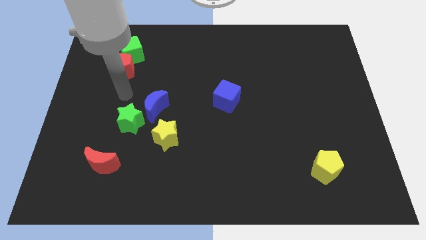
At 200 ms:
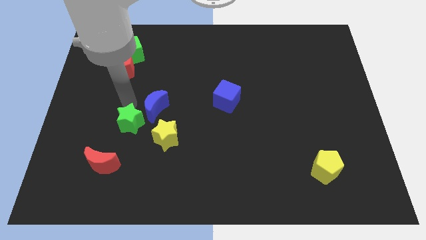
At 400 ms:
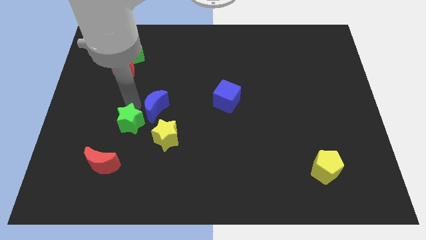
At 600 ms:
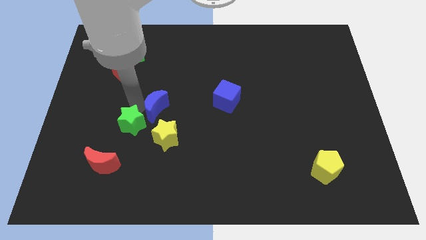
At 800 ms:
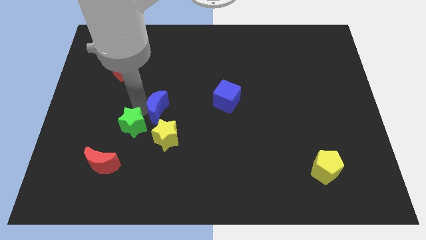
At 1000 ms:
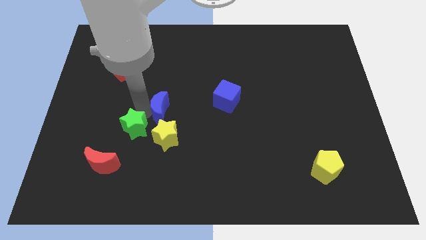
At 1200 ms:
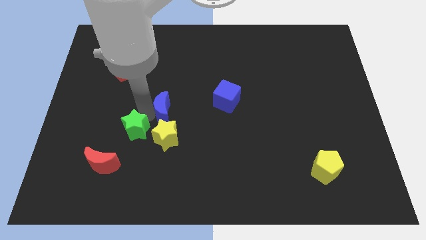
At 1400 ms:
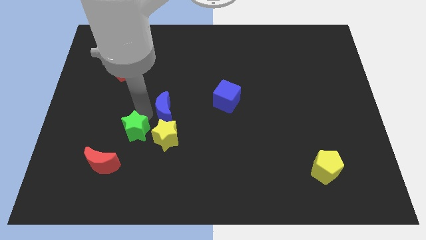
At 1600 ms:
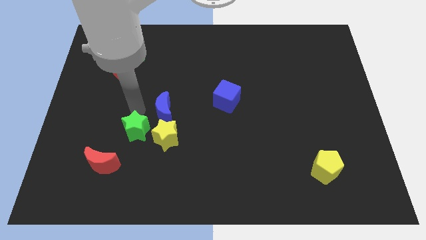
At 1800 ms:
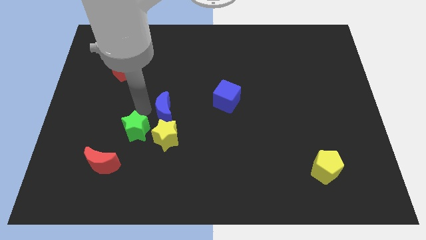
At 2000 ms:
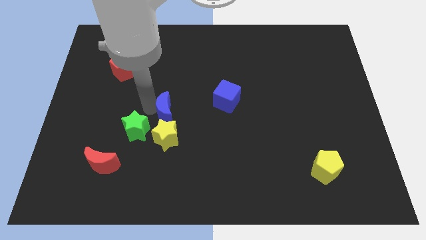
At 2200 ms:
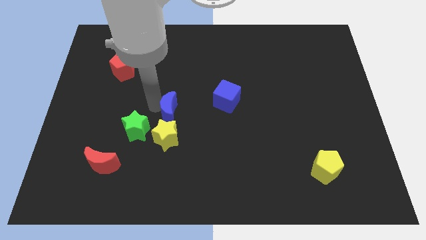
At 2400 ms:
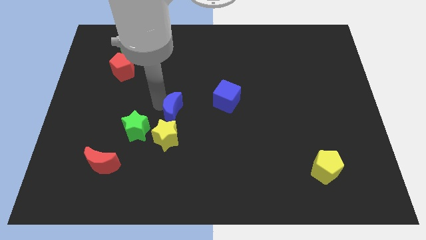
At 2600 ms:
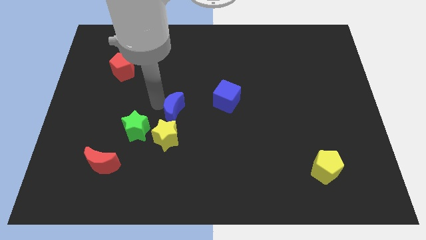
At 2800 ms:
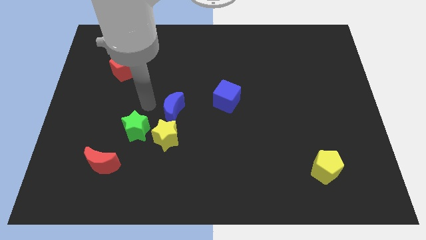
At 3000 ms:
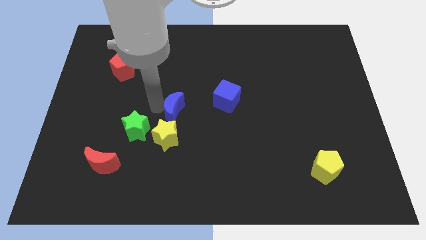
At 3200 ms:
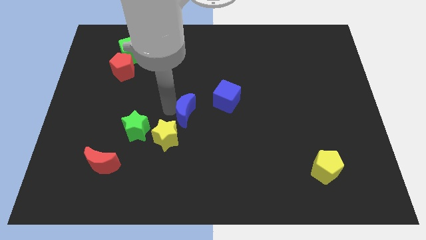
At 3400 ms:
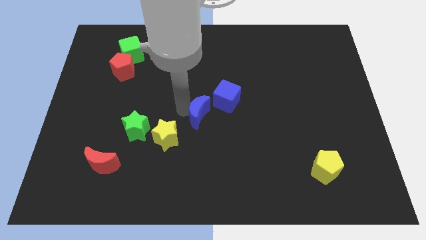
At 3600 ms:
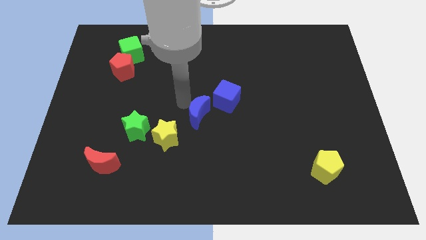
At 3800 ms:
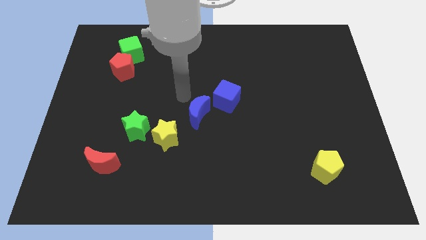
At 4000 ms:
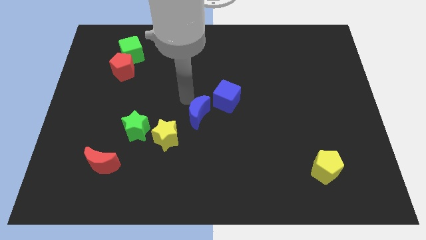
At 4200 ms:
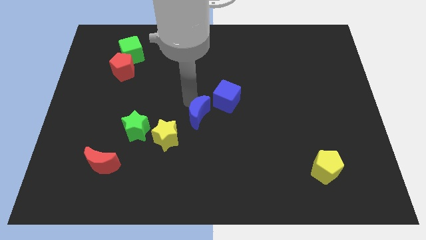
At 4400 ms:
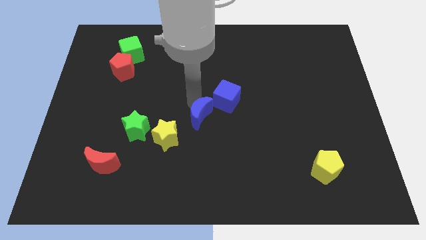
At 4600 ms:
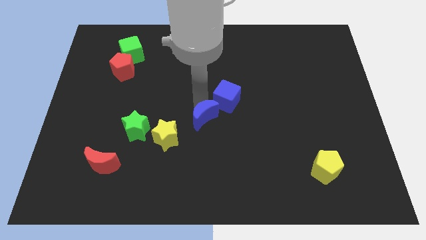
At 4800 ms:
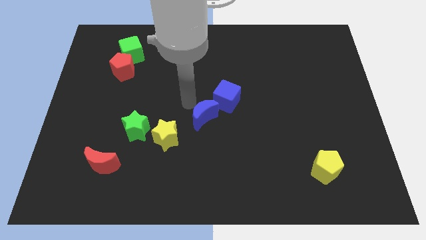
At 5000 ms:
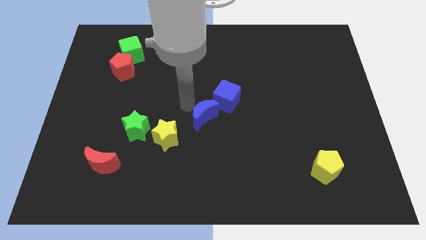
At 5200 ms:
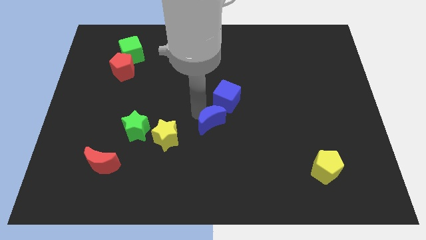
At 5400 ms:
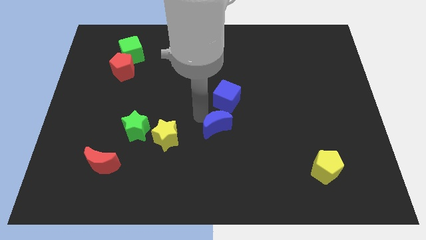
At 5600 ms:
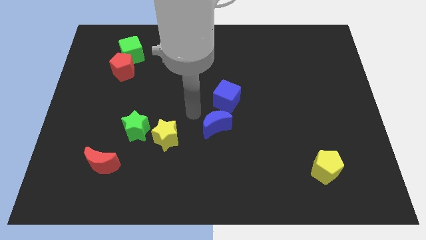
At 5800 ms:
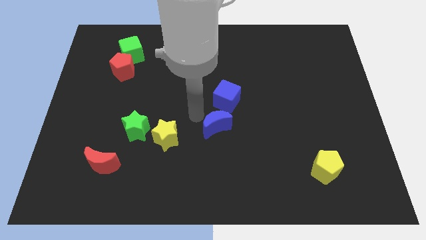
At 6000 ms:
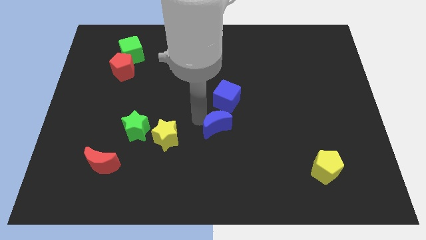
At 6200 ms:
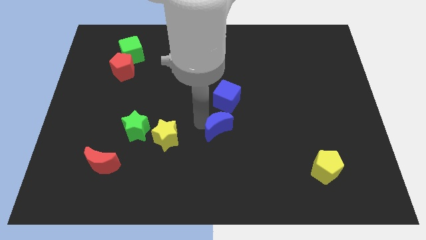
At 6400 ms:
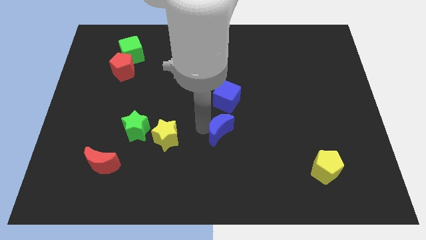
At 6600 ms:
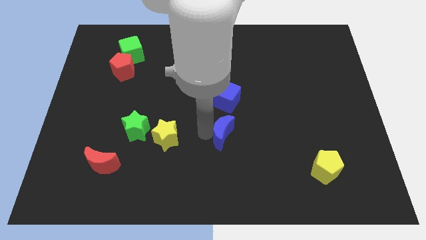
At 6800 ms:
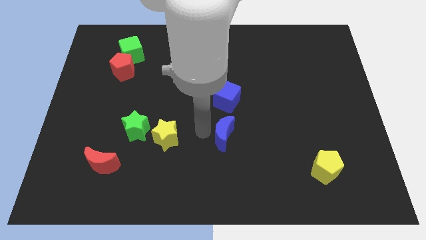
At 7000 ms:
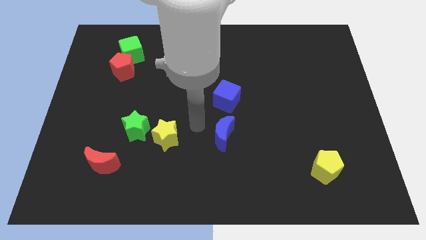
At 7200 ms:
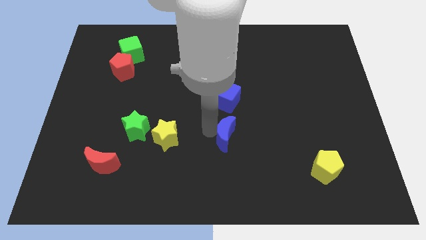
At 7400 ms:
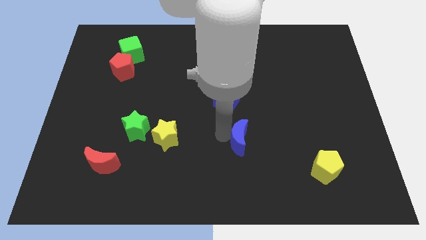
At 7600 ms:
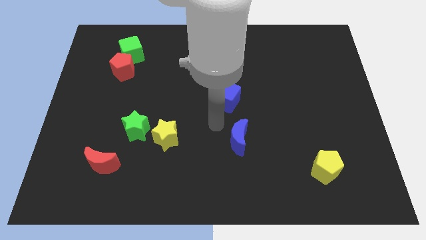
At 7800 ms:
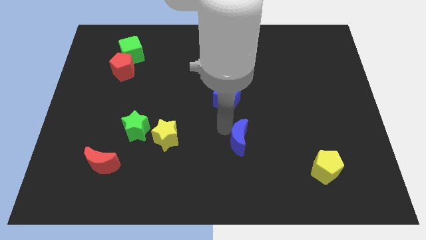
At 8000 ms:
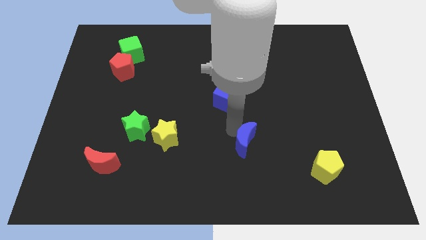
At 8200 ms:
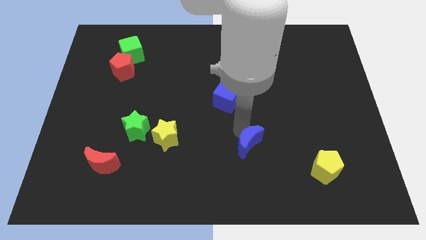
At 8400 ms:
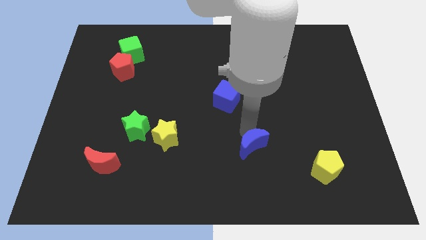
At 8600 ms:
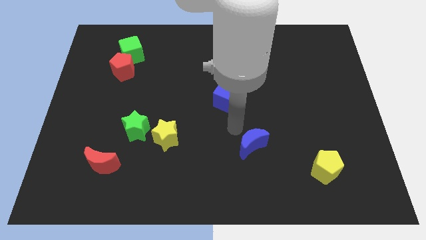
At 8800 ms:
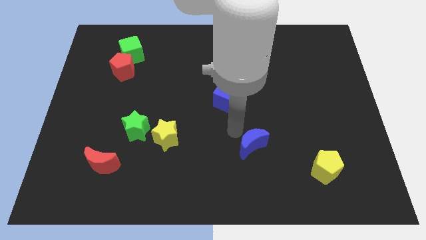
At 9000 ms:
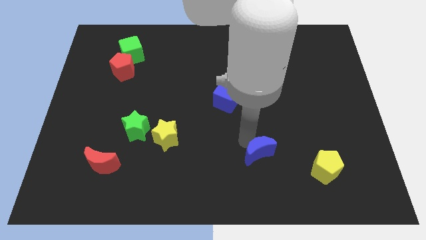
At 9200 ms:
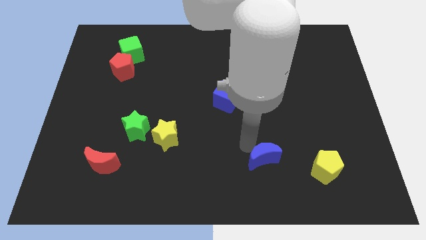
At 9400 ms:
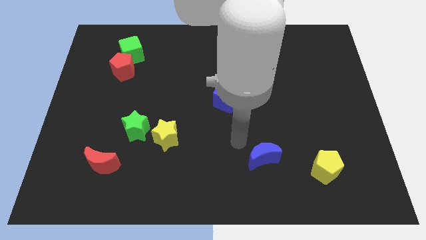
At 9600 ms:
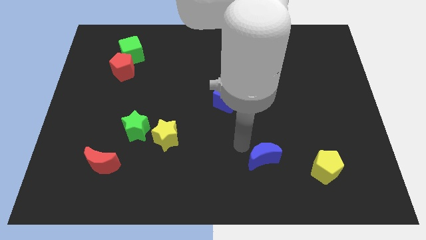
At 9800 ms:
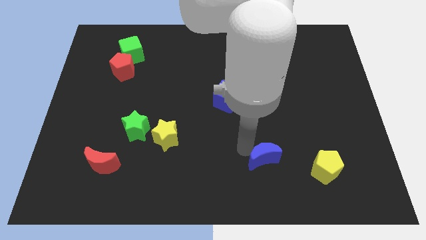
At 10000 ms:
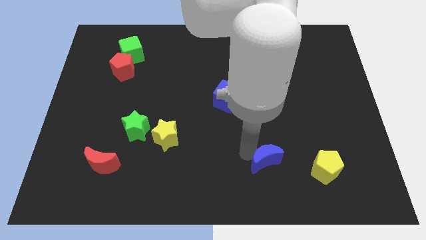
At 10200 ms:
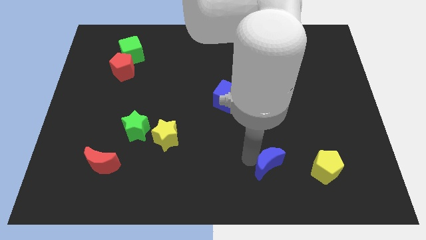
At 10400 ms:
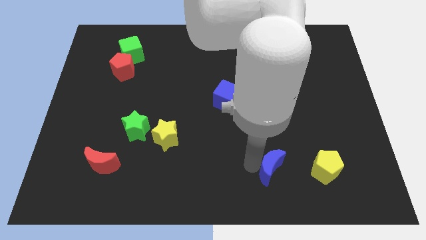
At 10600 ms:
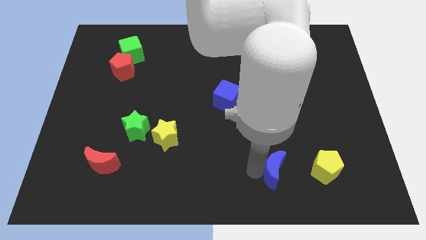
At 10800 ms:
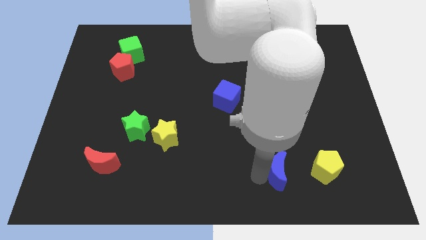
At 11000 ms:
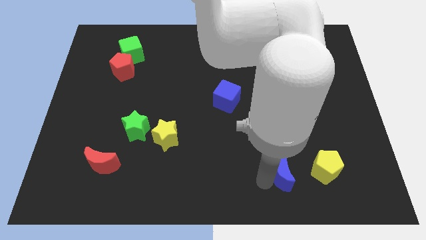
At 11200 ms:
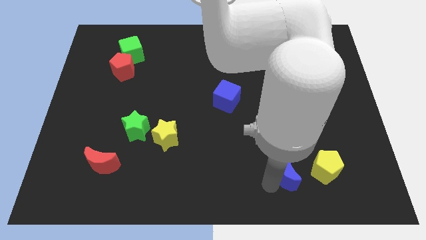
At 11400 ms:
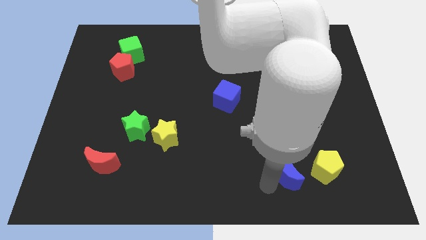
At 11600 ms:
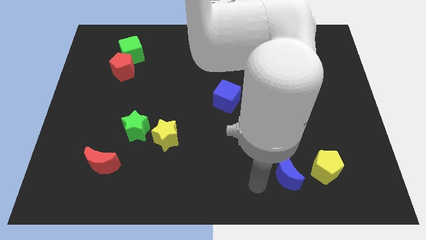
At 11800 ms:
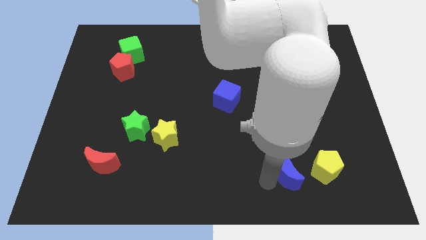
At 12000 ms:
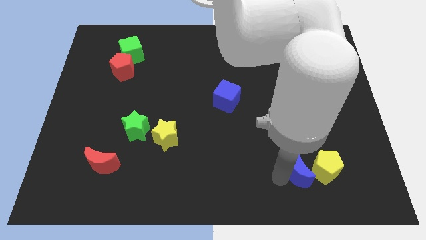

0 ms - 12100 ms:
push the blue moon close to the yellow pentagon

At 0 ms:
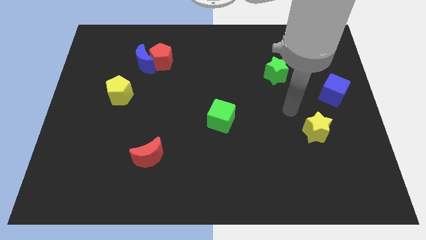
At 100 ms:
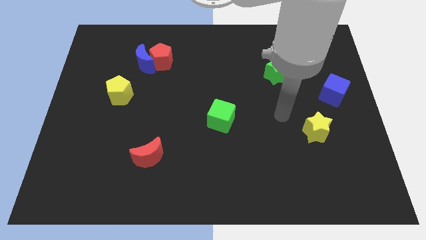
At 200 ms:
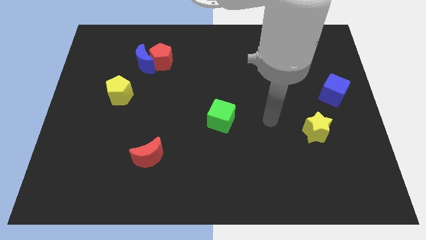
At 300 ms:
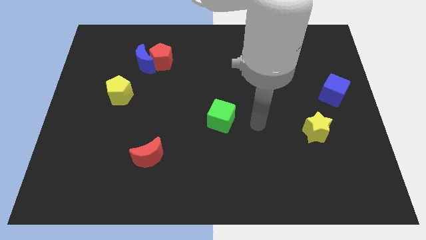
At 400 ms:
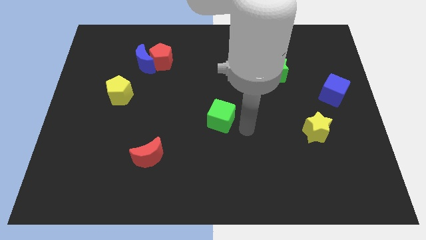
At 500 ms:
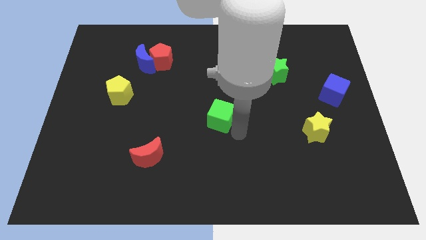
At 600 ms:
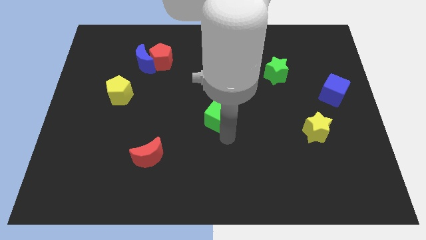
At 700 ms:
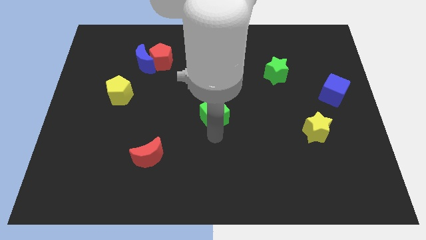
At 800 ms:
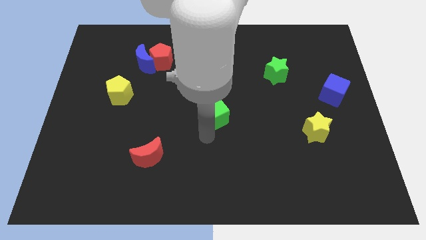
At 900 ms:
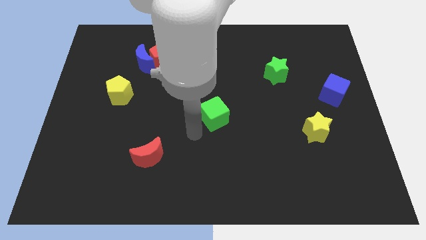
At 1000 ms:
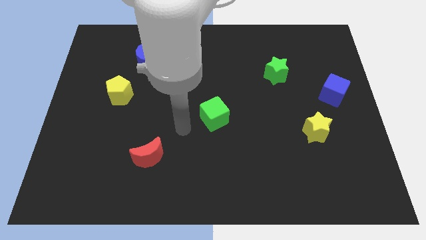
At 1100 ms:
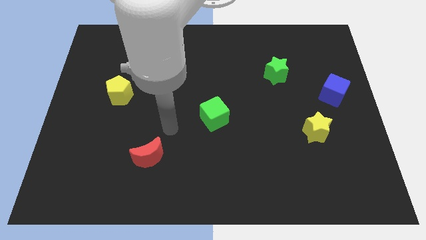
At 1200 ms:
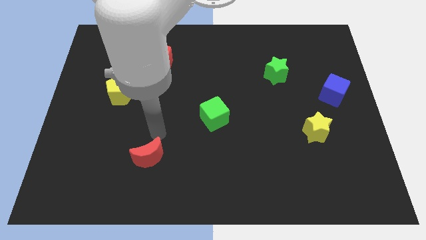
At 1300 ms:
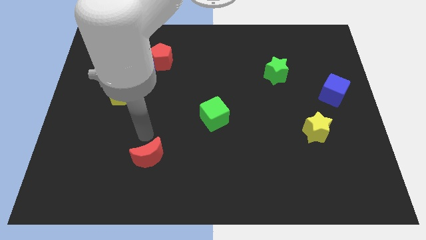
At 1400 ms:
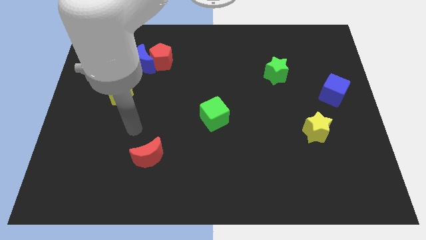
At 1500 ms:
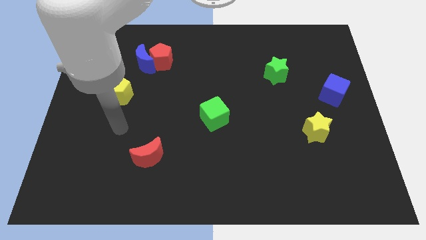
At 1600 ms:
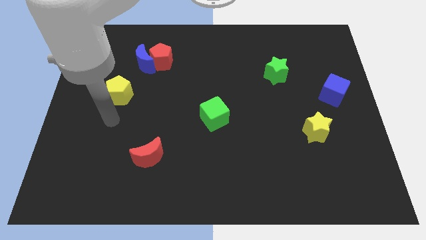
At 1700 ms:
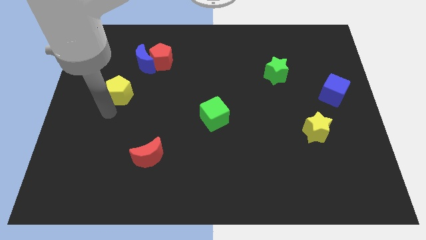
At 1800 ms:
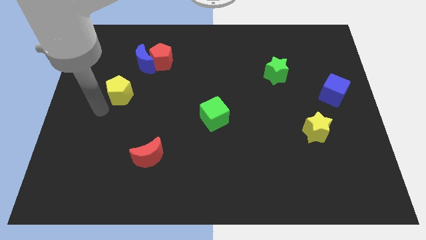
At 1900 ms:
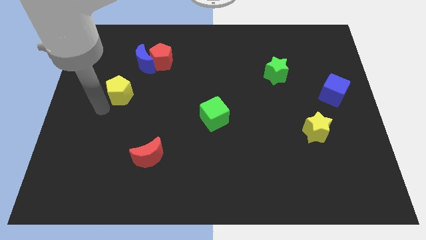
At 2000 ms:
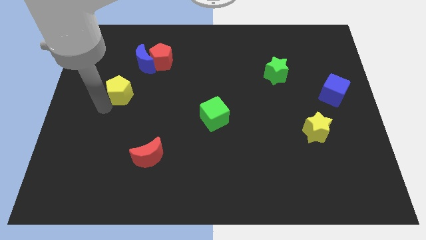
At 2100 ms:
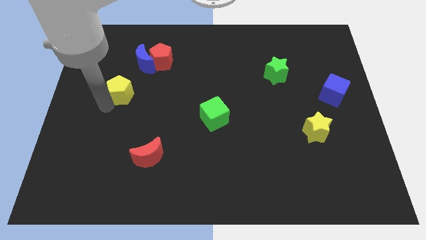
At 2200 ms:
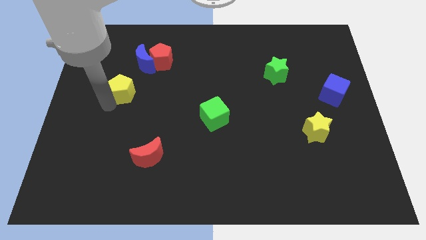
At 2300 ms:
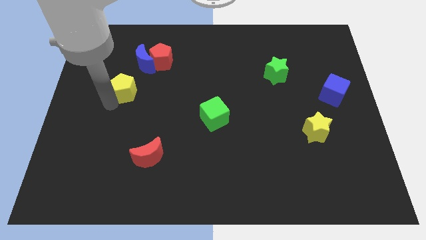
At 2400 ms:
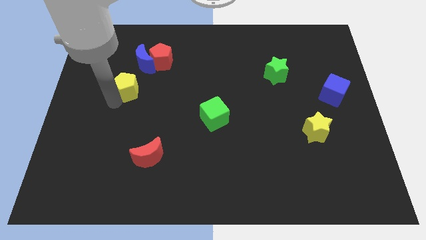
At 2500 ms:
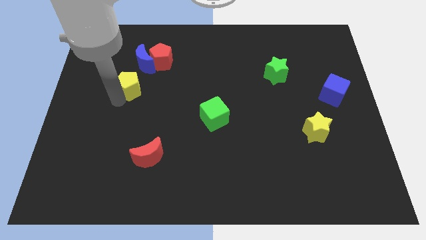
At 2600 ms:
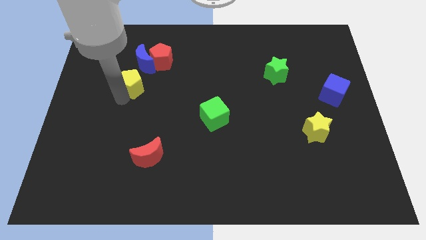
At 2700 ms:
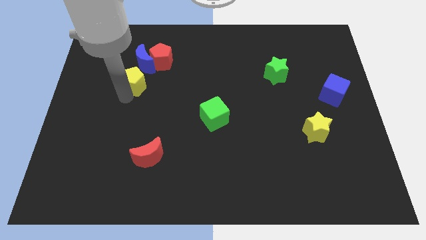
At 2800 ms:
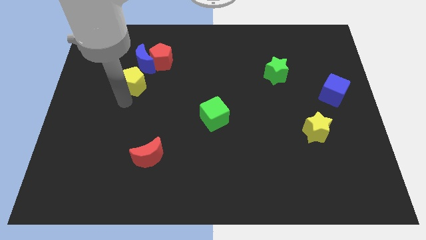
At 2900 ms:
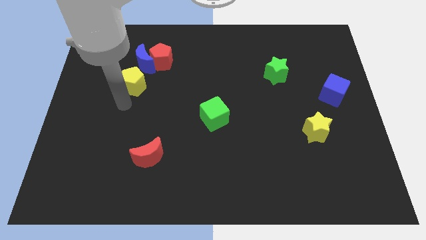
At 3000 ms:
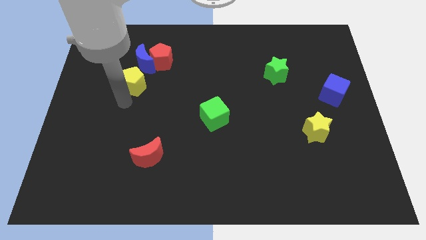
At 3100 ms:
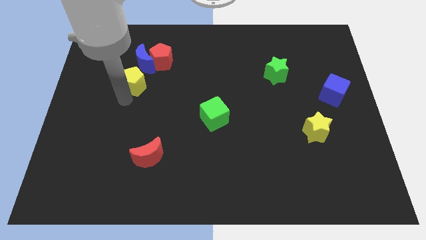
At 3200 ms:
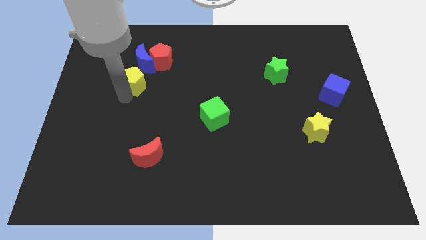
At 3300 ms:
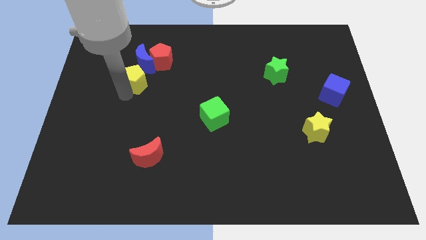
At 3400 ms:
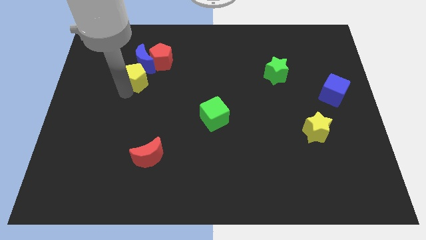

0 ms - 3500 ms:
push the yellow pentagon towards the blue moon
